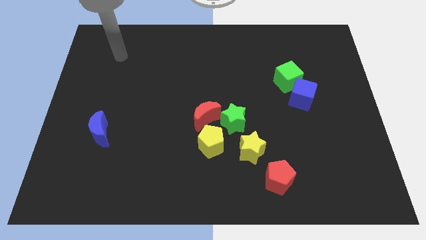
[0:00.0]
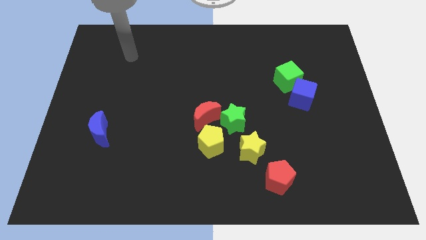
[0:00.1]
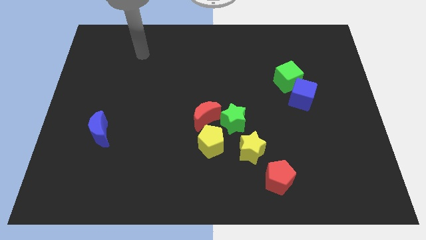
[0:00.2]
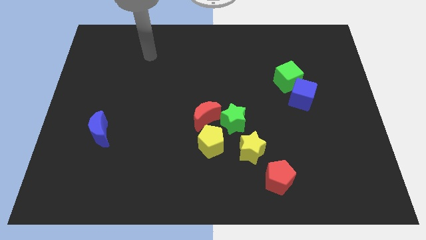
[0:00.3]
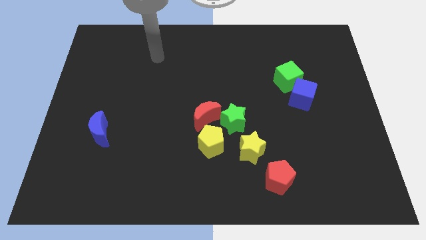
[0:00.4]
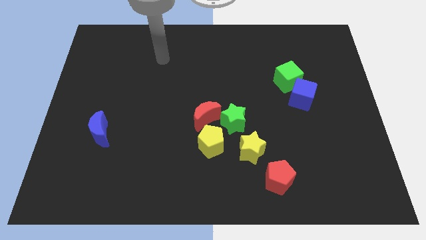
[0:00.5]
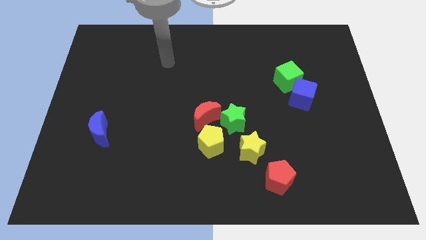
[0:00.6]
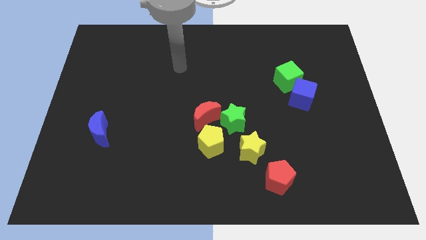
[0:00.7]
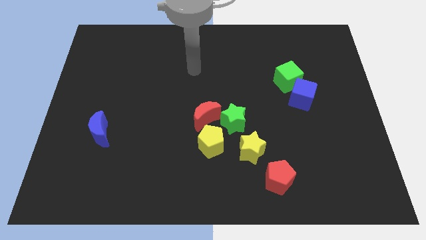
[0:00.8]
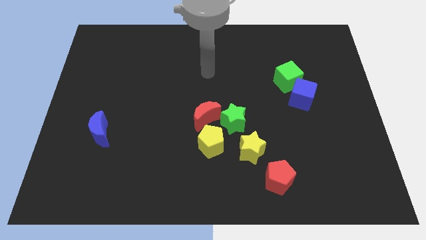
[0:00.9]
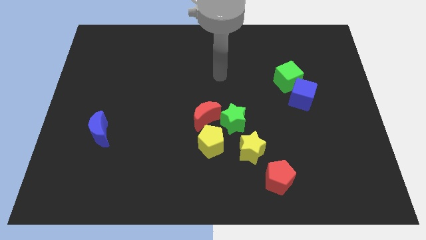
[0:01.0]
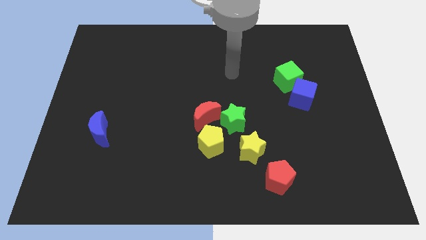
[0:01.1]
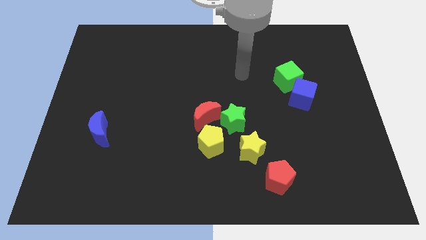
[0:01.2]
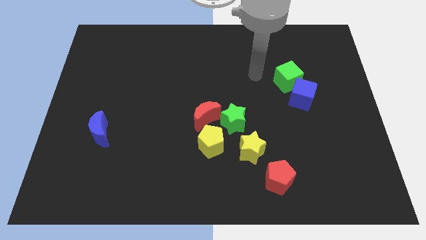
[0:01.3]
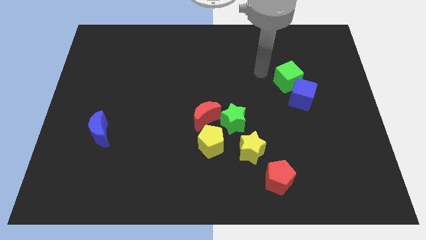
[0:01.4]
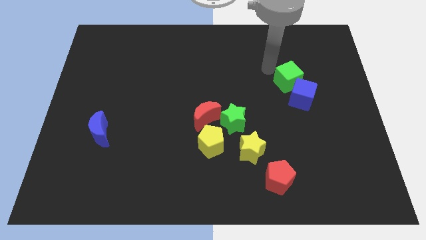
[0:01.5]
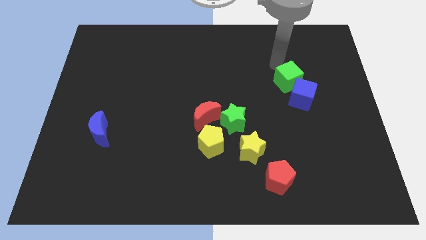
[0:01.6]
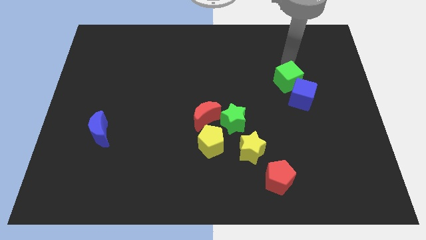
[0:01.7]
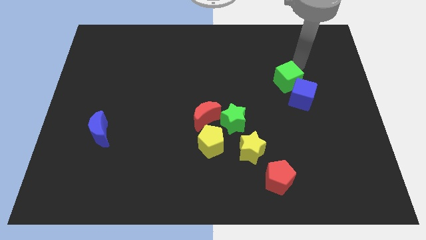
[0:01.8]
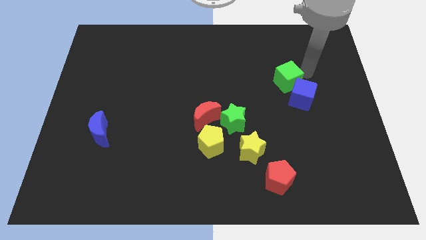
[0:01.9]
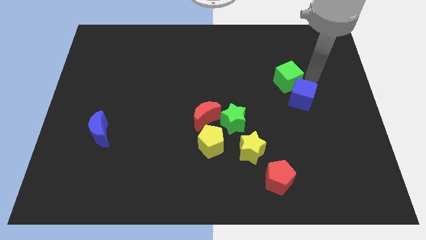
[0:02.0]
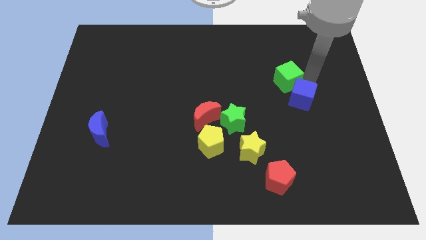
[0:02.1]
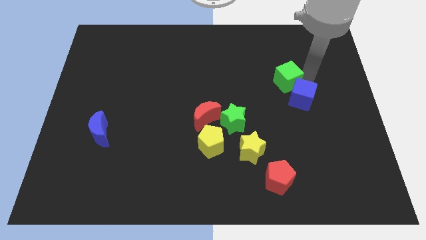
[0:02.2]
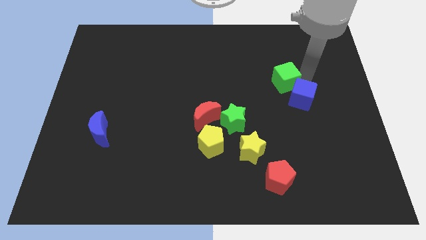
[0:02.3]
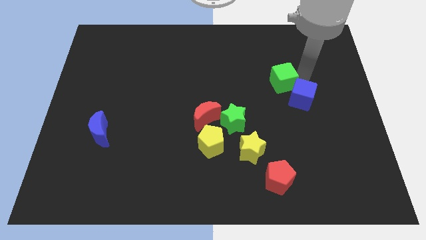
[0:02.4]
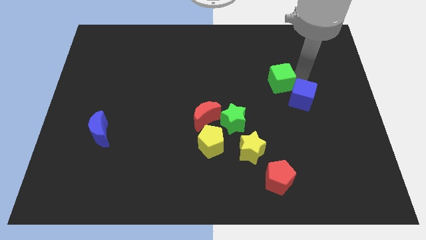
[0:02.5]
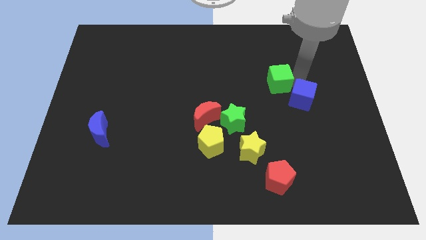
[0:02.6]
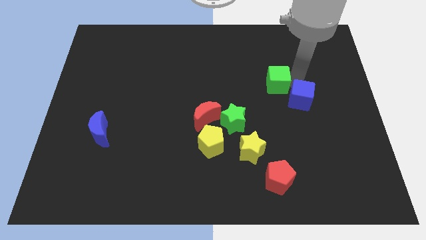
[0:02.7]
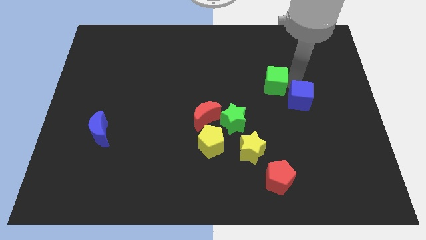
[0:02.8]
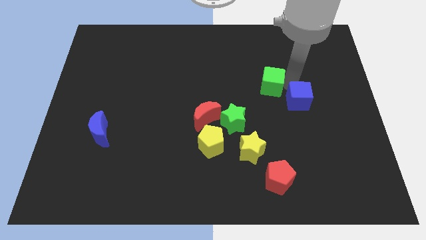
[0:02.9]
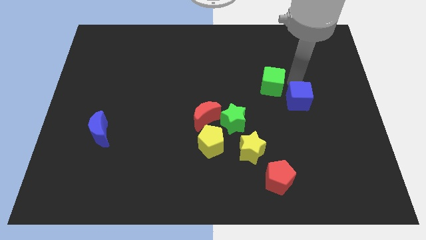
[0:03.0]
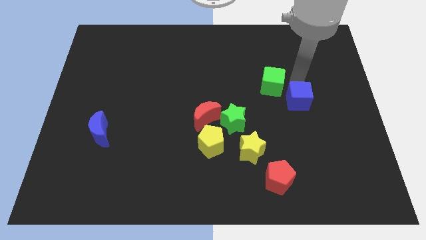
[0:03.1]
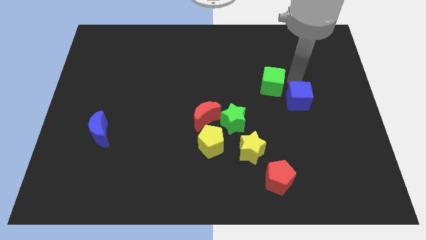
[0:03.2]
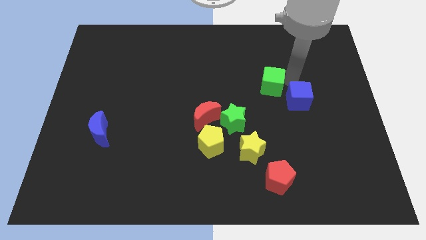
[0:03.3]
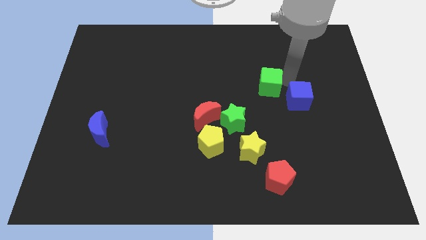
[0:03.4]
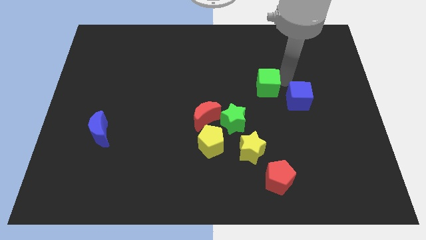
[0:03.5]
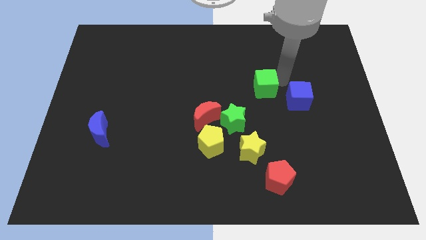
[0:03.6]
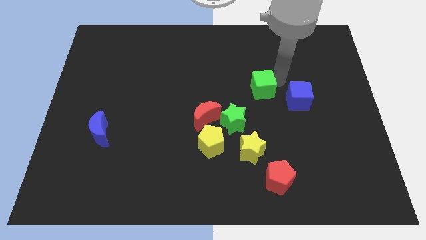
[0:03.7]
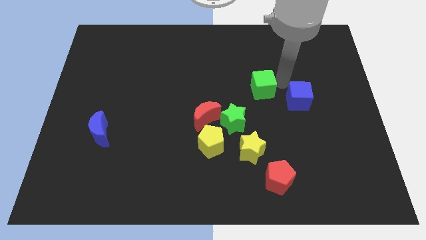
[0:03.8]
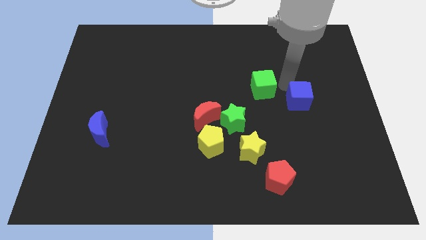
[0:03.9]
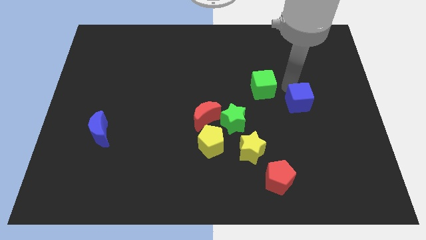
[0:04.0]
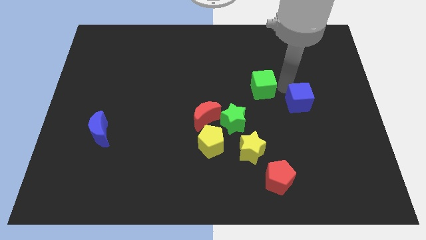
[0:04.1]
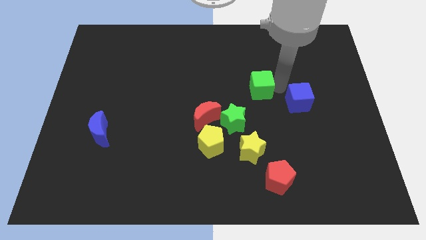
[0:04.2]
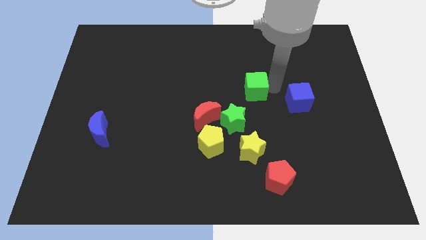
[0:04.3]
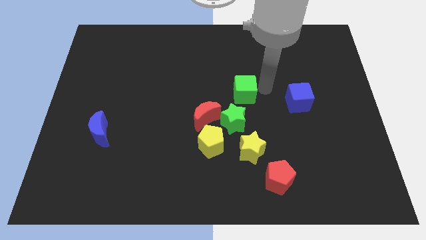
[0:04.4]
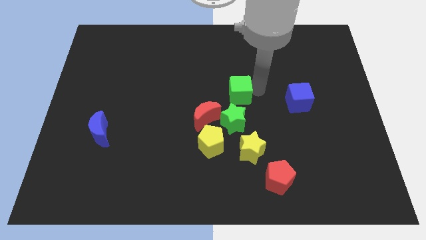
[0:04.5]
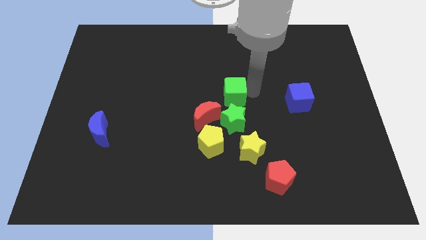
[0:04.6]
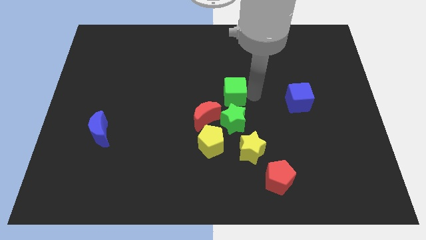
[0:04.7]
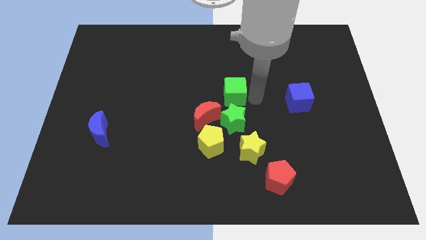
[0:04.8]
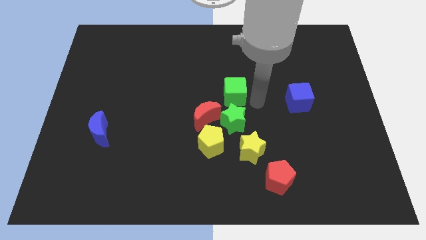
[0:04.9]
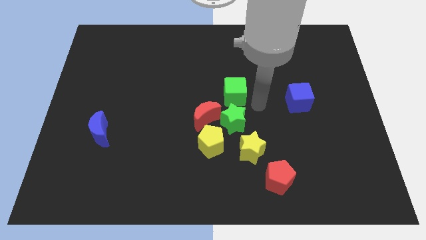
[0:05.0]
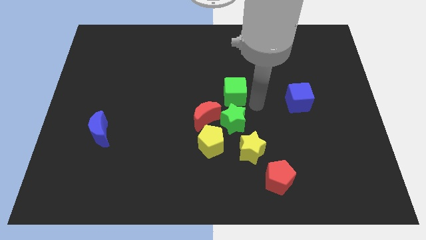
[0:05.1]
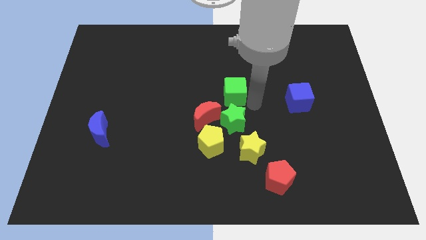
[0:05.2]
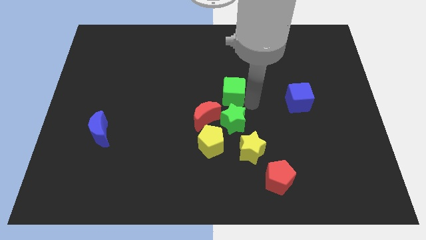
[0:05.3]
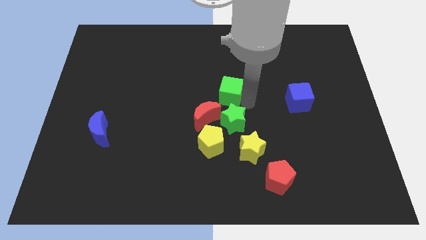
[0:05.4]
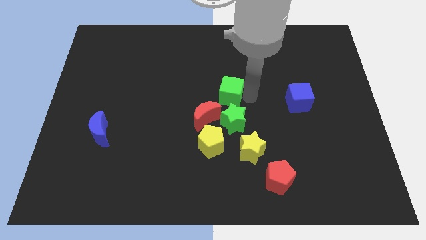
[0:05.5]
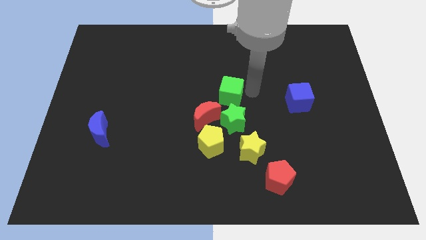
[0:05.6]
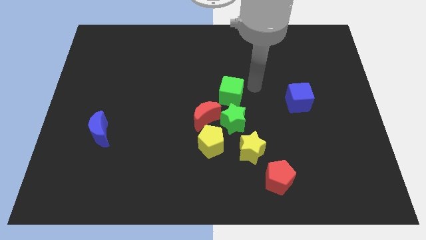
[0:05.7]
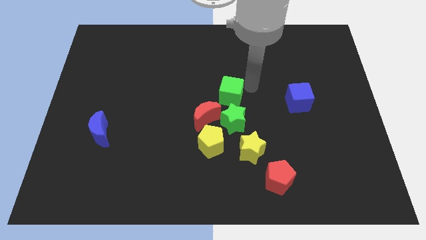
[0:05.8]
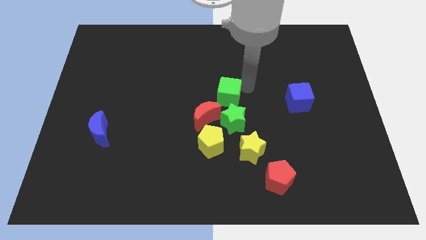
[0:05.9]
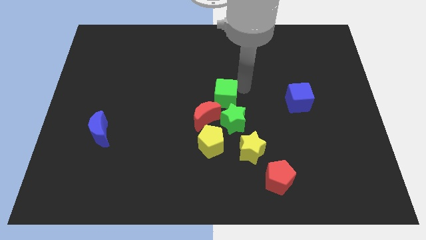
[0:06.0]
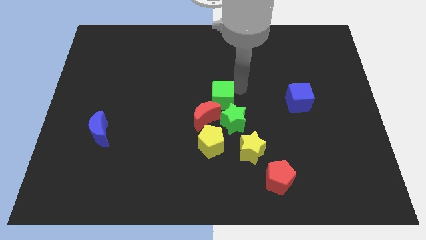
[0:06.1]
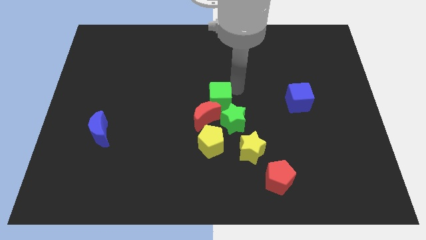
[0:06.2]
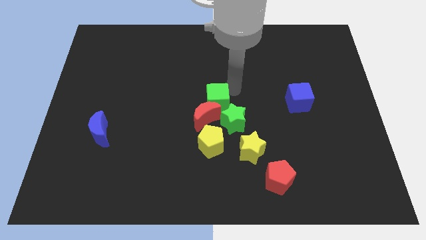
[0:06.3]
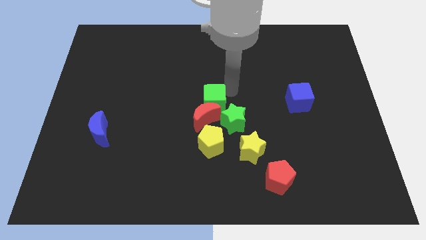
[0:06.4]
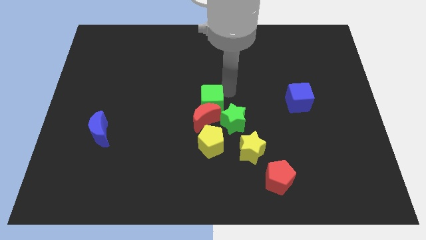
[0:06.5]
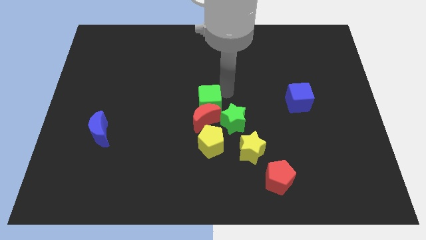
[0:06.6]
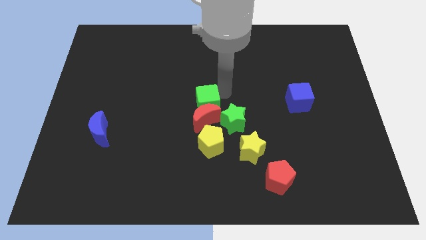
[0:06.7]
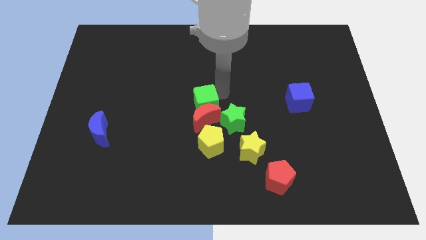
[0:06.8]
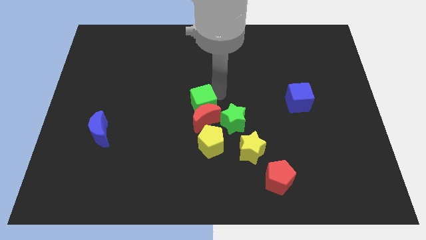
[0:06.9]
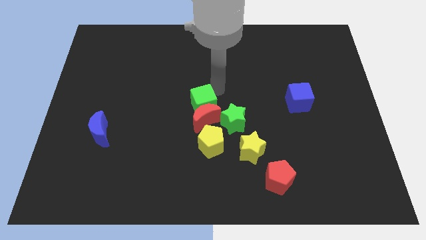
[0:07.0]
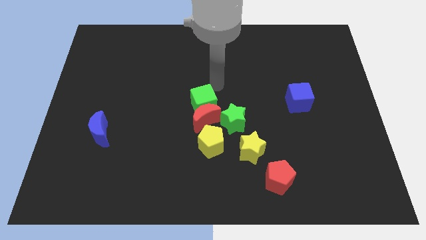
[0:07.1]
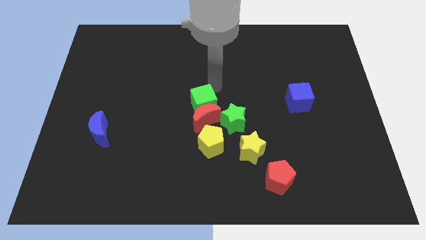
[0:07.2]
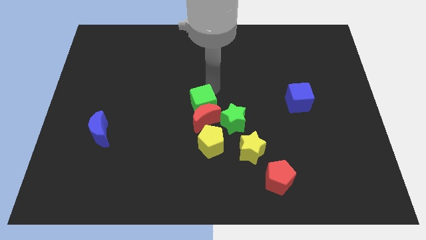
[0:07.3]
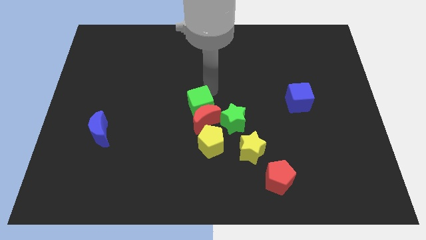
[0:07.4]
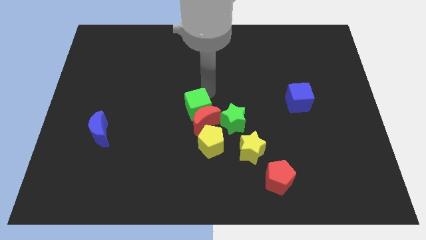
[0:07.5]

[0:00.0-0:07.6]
move the green cube to the top left side of the yellow pentagon
